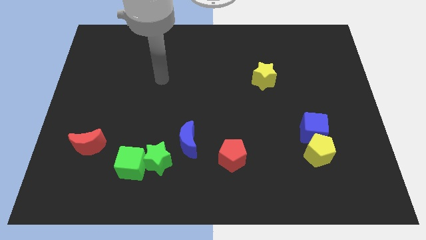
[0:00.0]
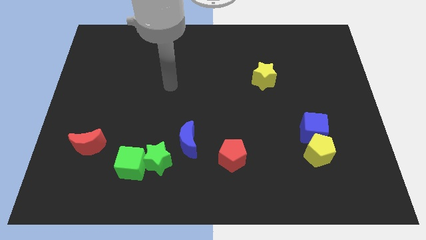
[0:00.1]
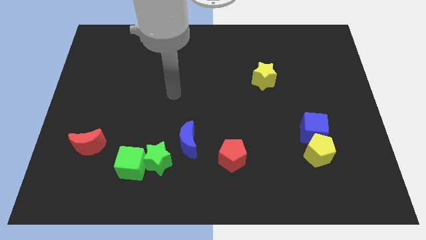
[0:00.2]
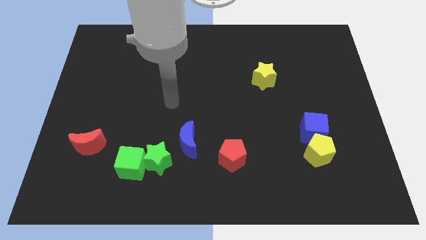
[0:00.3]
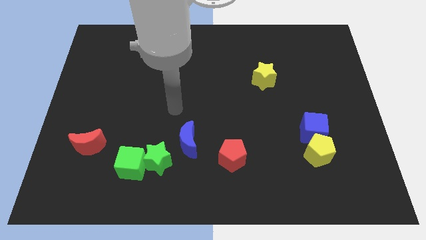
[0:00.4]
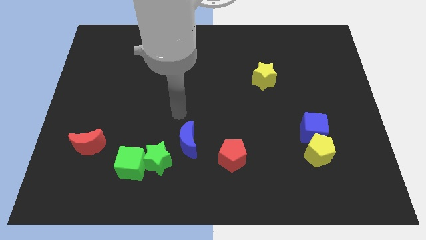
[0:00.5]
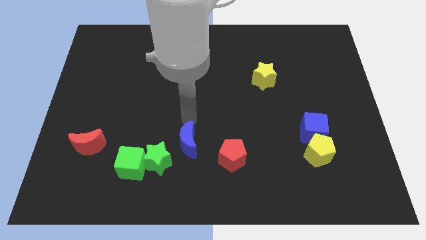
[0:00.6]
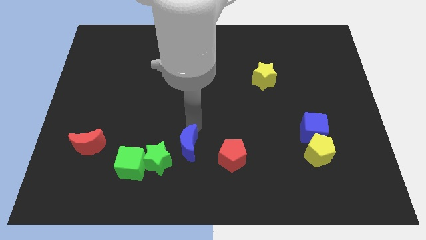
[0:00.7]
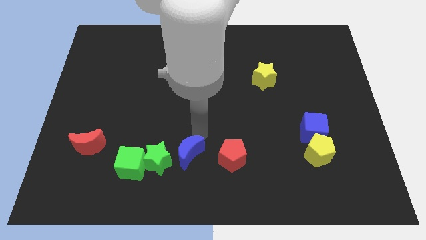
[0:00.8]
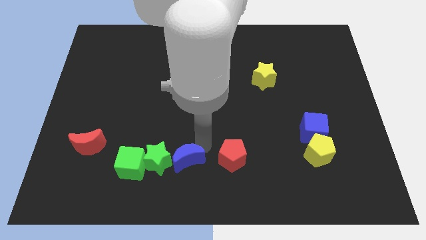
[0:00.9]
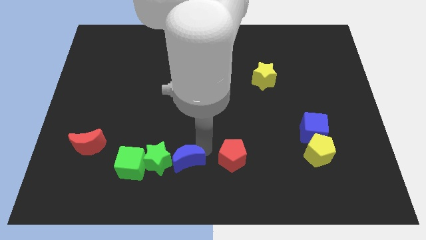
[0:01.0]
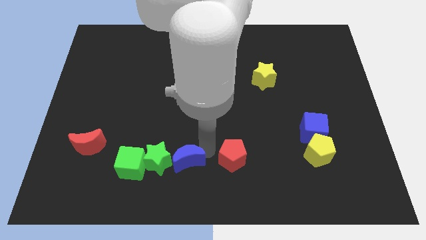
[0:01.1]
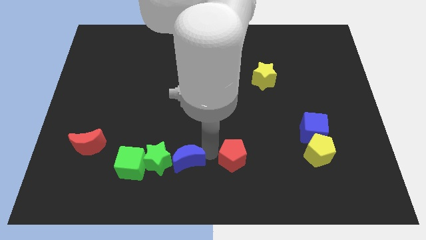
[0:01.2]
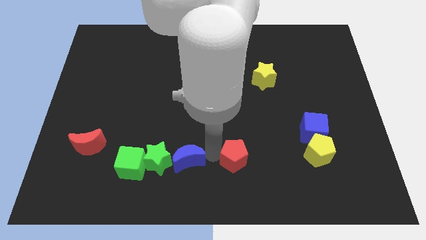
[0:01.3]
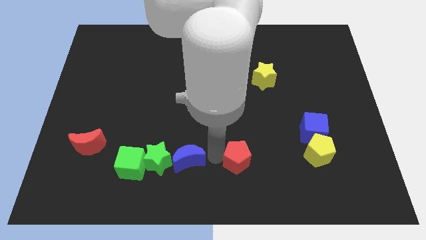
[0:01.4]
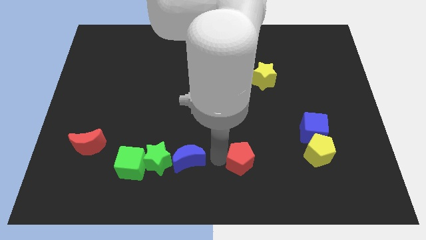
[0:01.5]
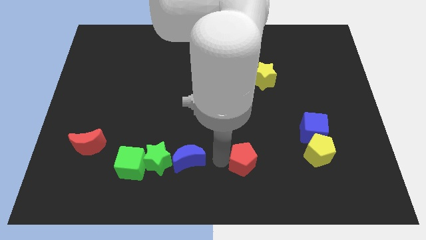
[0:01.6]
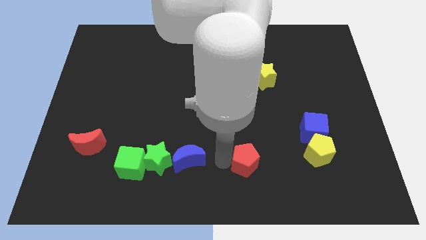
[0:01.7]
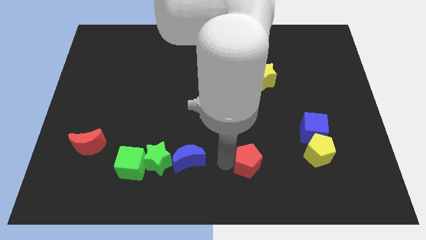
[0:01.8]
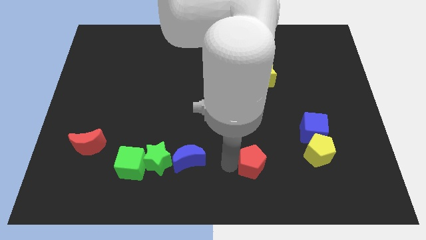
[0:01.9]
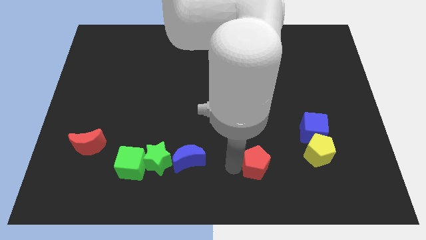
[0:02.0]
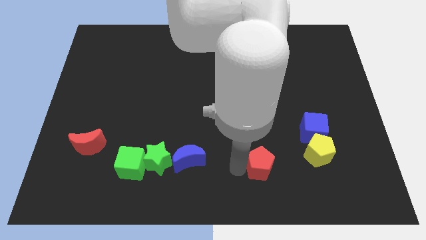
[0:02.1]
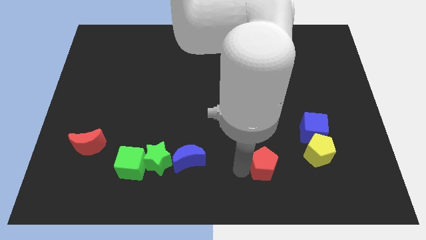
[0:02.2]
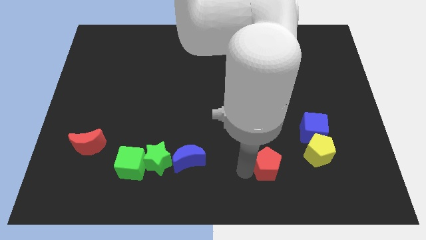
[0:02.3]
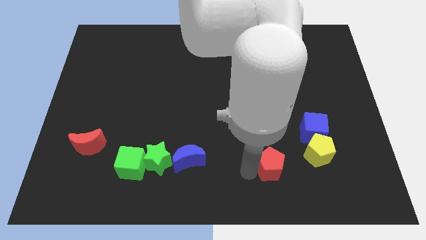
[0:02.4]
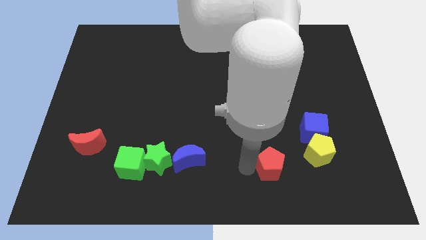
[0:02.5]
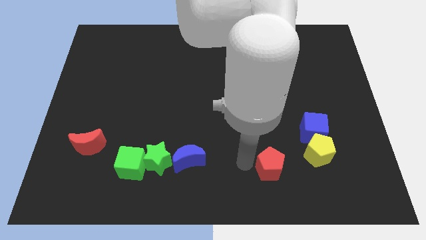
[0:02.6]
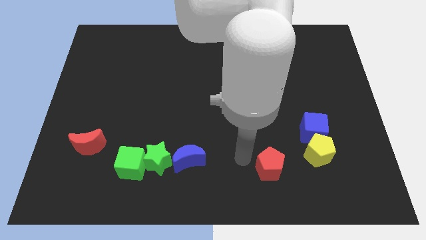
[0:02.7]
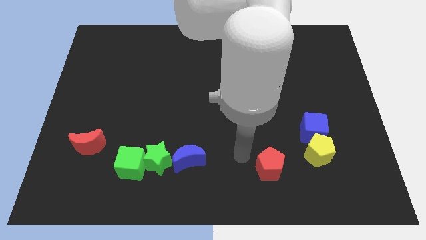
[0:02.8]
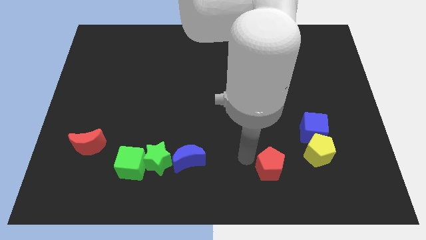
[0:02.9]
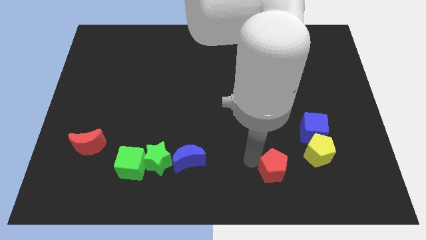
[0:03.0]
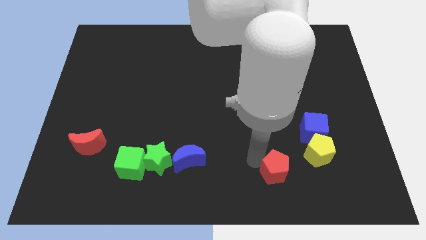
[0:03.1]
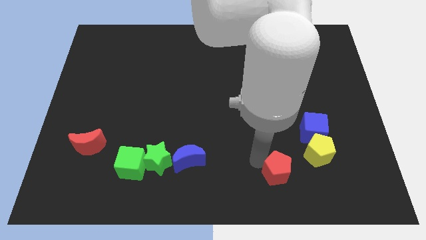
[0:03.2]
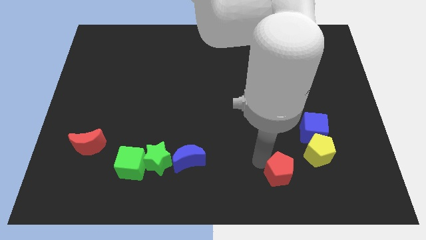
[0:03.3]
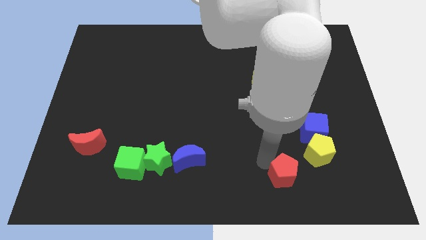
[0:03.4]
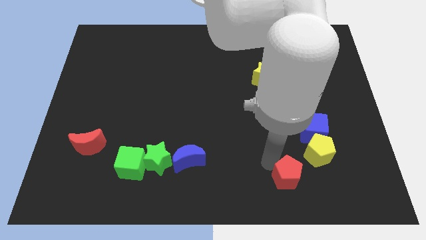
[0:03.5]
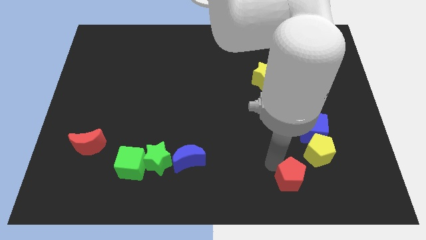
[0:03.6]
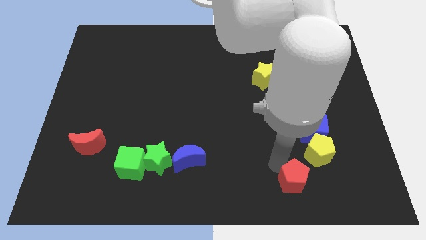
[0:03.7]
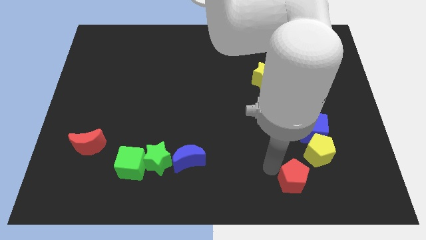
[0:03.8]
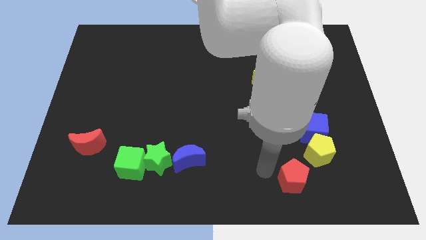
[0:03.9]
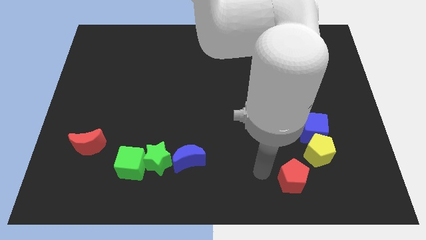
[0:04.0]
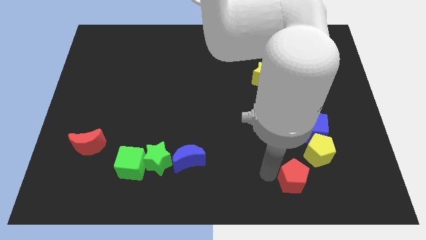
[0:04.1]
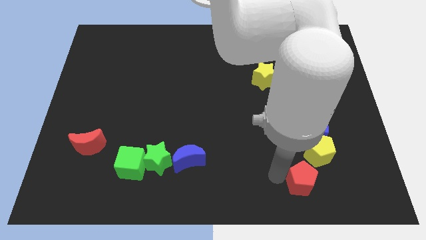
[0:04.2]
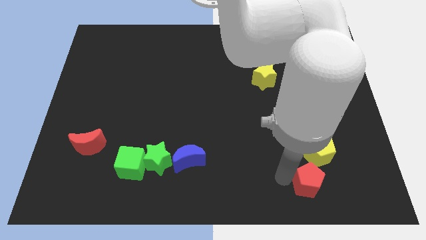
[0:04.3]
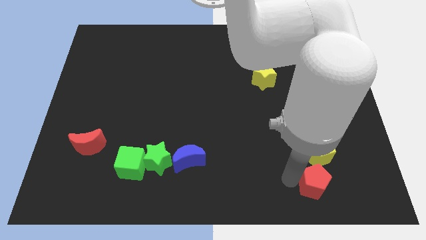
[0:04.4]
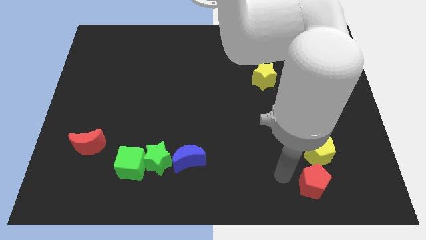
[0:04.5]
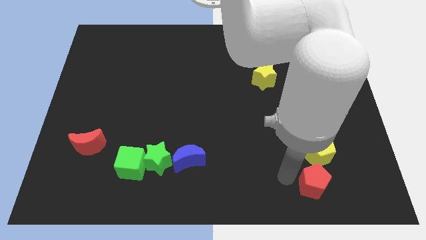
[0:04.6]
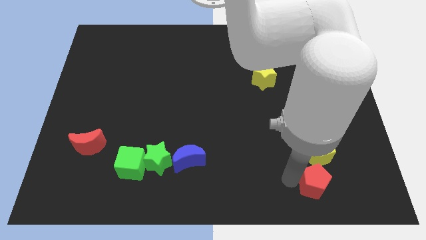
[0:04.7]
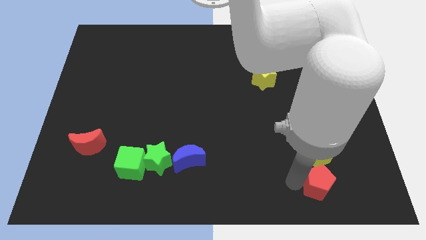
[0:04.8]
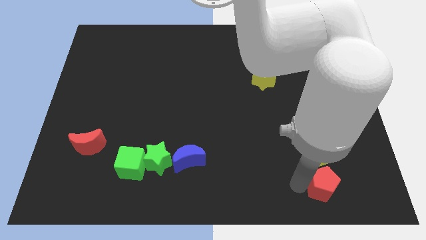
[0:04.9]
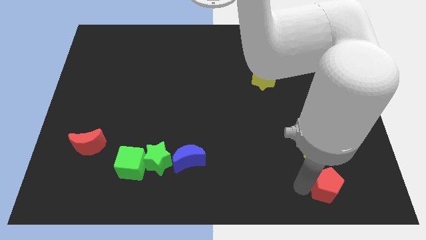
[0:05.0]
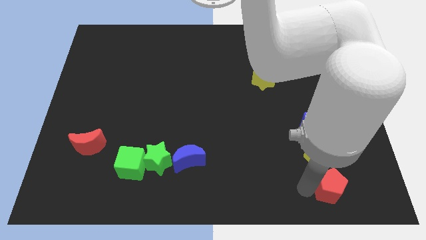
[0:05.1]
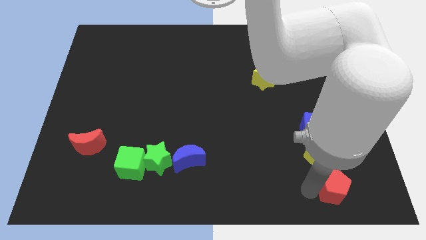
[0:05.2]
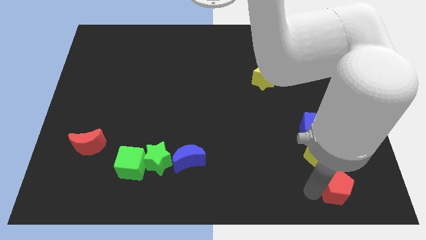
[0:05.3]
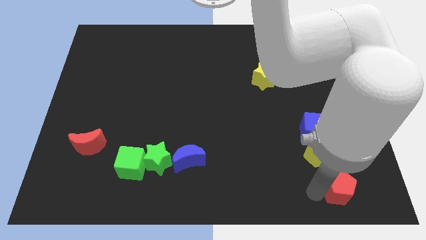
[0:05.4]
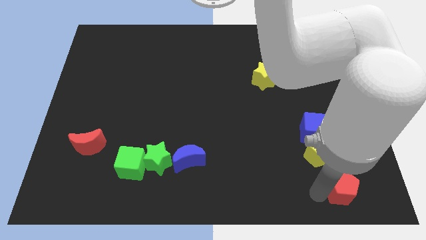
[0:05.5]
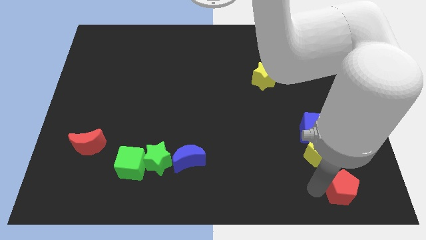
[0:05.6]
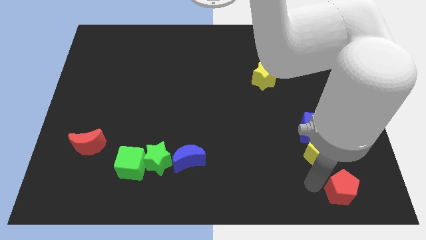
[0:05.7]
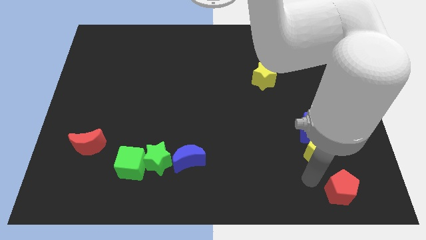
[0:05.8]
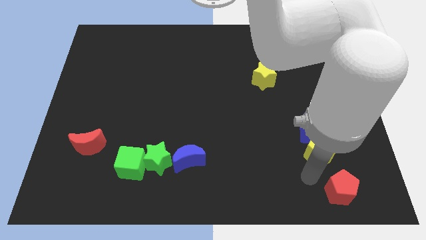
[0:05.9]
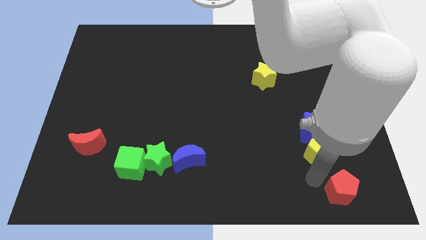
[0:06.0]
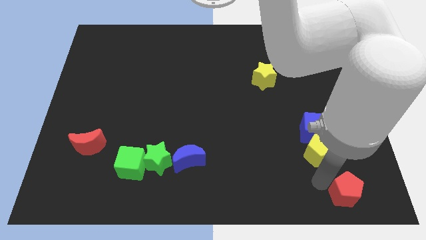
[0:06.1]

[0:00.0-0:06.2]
move the red pentagon to the bottom right corner

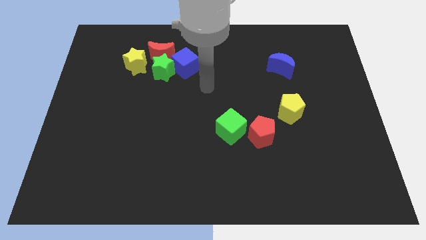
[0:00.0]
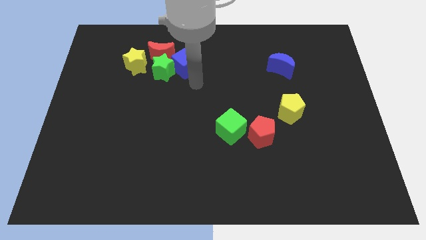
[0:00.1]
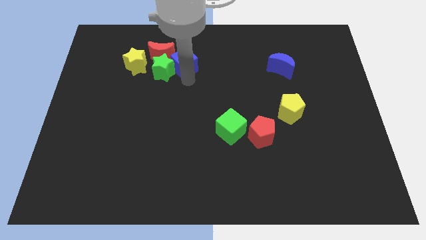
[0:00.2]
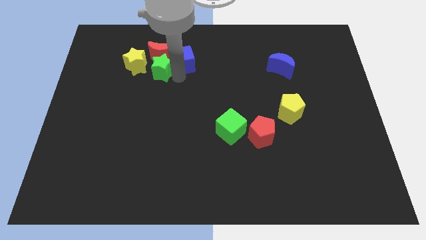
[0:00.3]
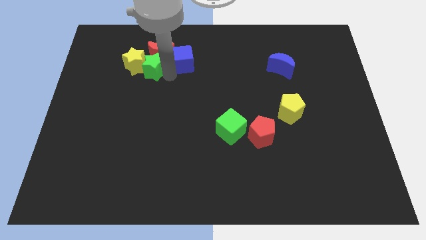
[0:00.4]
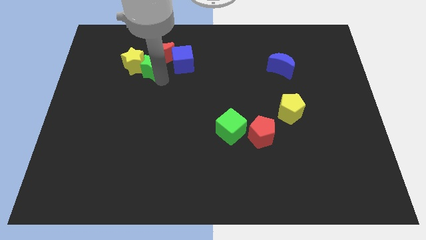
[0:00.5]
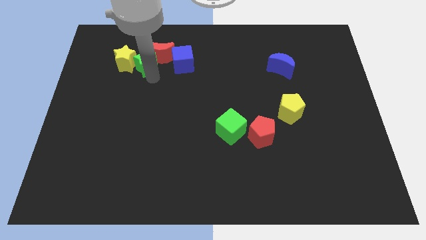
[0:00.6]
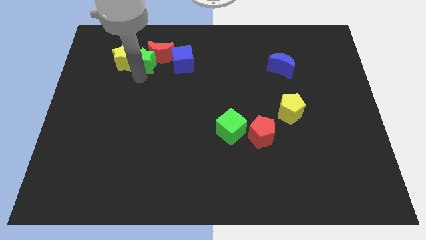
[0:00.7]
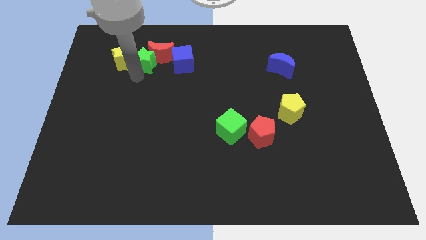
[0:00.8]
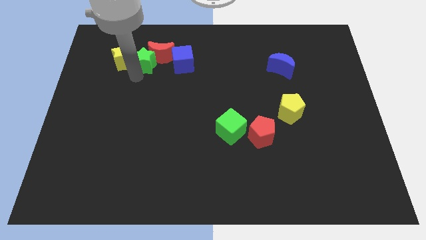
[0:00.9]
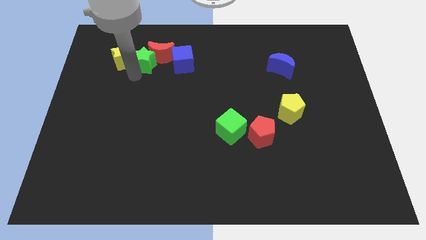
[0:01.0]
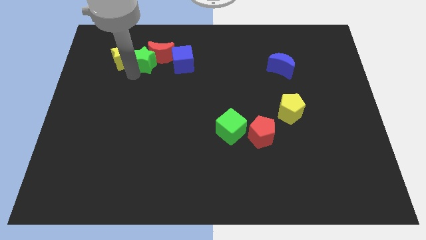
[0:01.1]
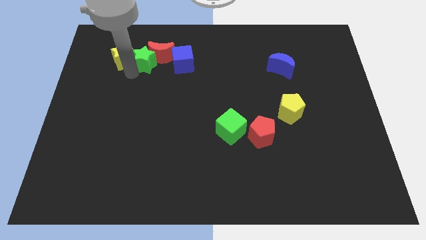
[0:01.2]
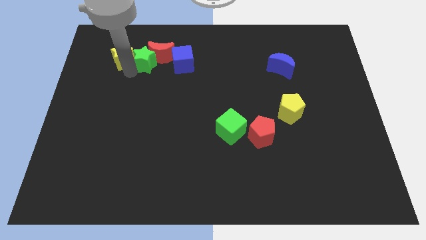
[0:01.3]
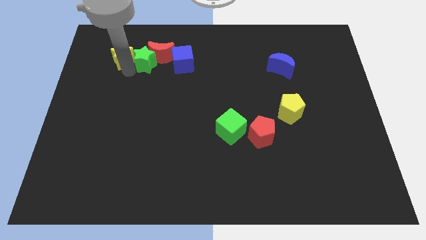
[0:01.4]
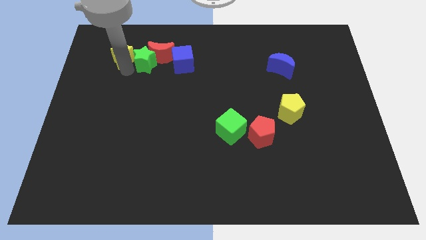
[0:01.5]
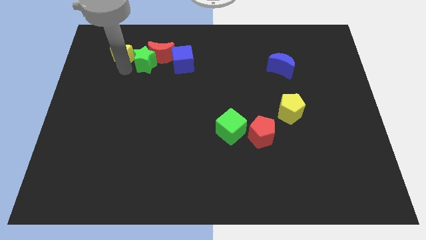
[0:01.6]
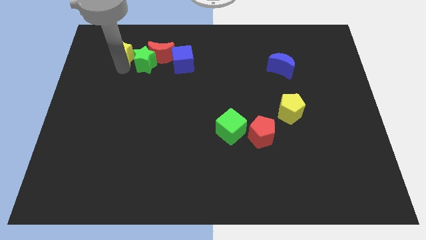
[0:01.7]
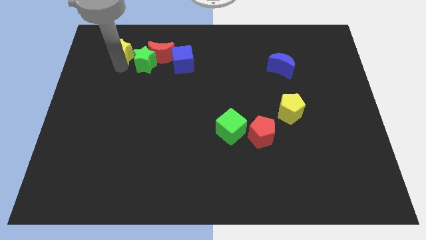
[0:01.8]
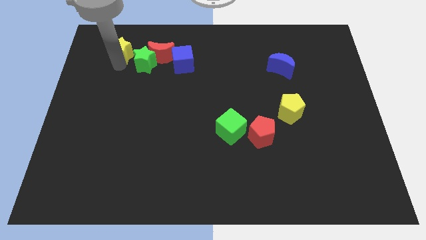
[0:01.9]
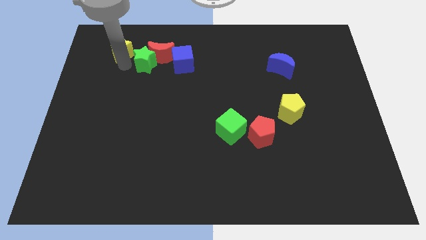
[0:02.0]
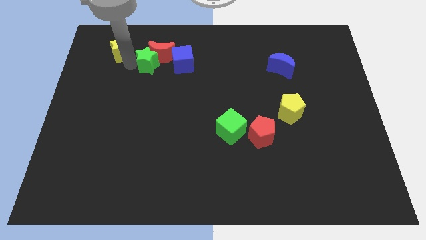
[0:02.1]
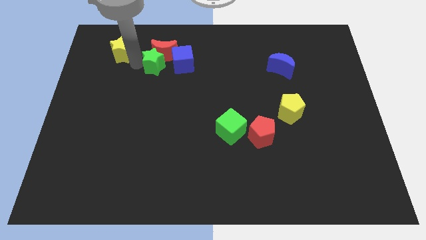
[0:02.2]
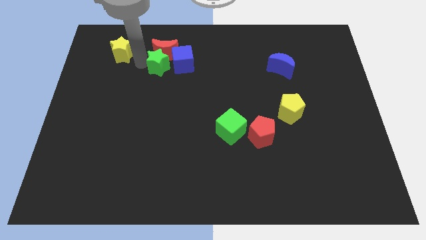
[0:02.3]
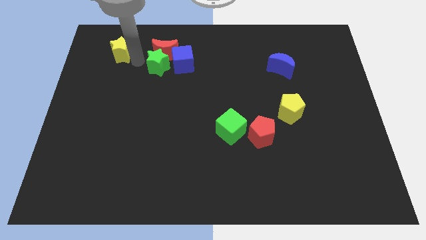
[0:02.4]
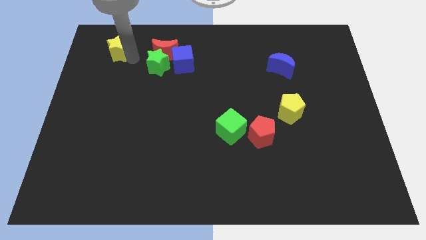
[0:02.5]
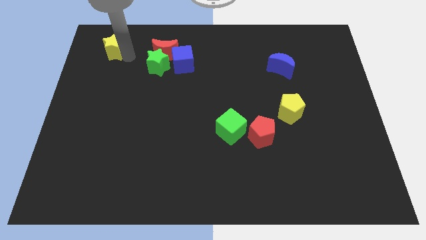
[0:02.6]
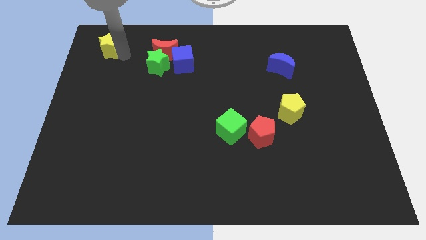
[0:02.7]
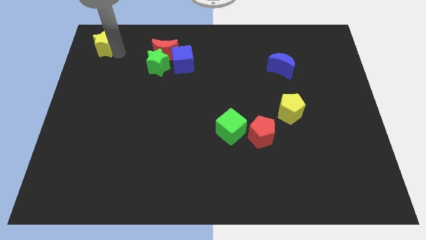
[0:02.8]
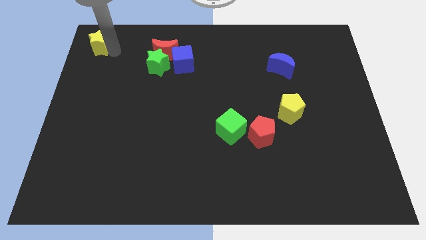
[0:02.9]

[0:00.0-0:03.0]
push the yellow star to the top left corner
